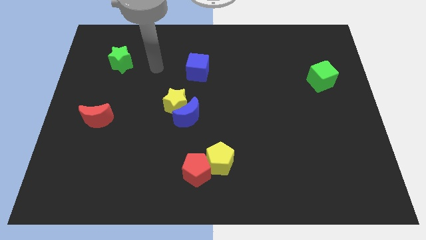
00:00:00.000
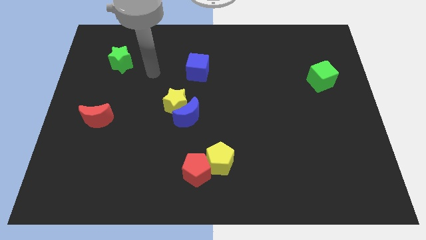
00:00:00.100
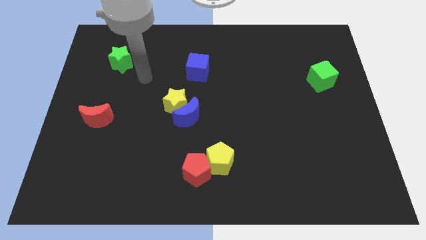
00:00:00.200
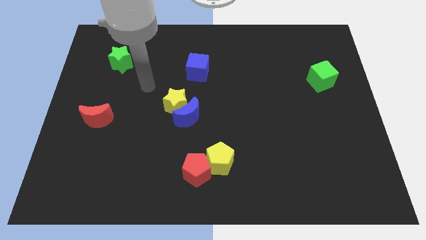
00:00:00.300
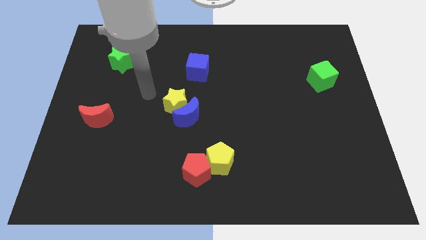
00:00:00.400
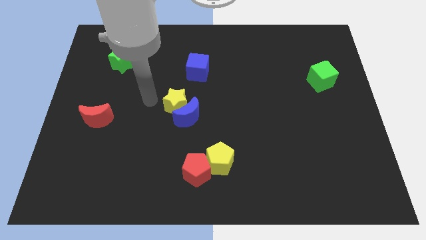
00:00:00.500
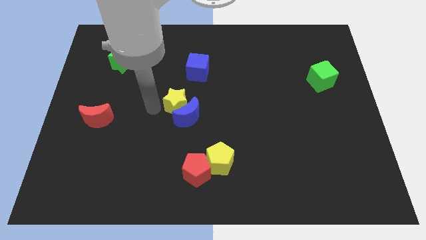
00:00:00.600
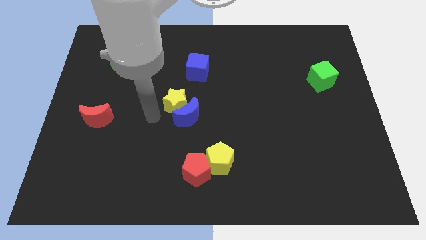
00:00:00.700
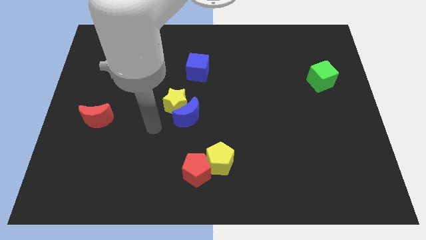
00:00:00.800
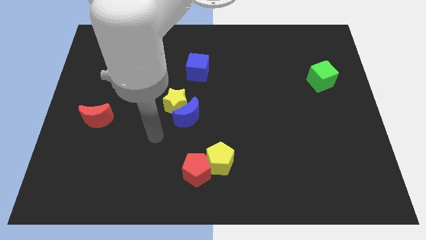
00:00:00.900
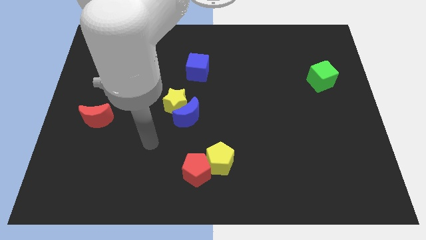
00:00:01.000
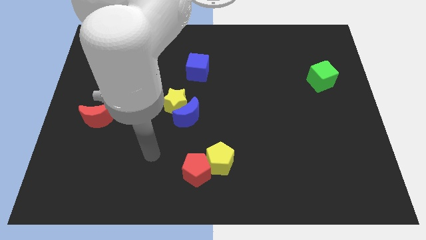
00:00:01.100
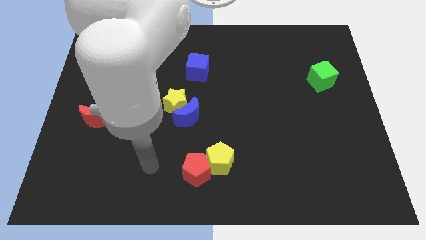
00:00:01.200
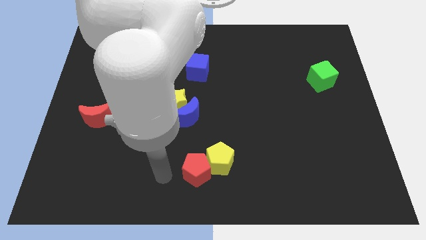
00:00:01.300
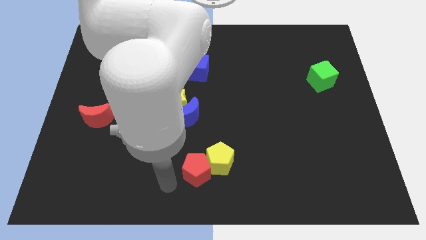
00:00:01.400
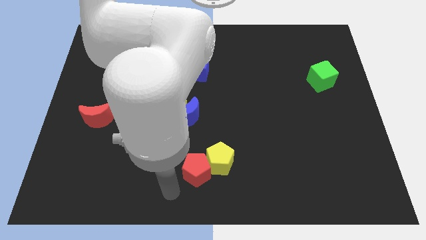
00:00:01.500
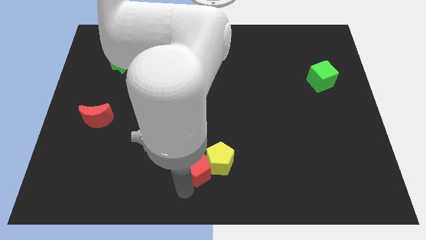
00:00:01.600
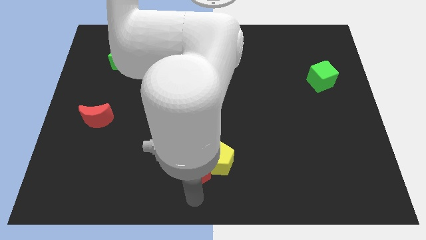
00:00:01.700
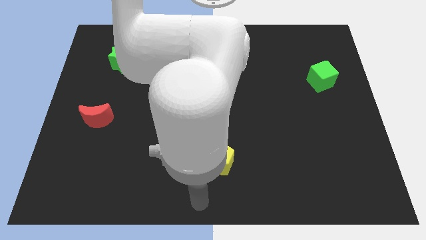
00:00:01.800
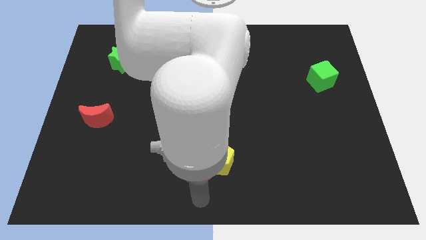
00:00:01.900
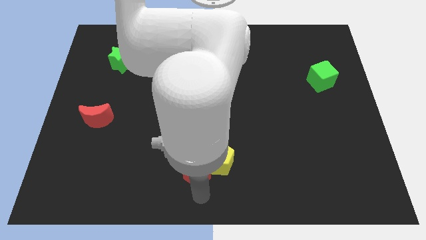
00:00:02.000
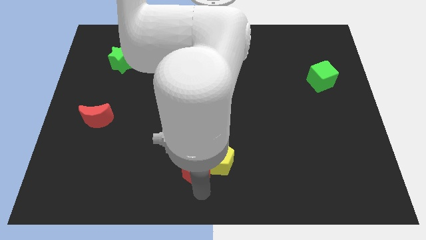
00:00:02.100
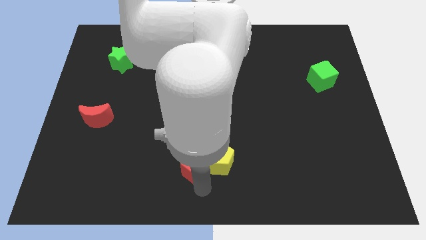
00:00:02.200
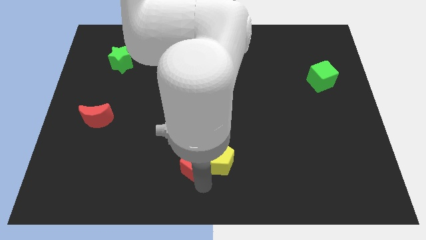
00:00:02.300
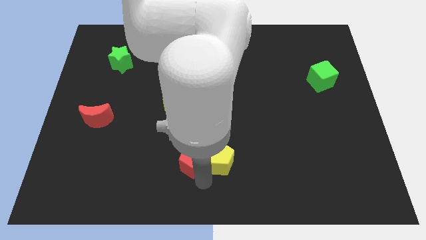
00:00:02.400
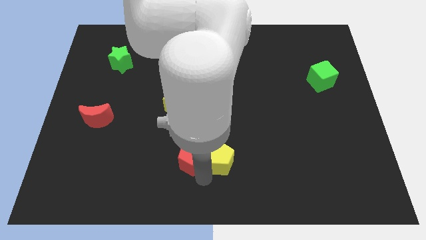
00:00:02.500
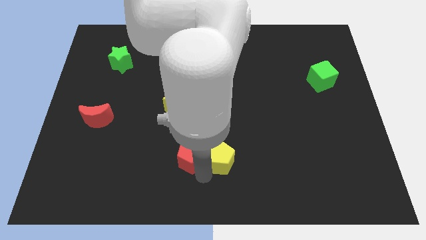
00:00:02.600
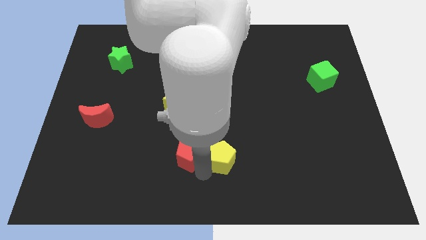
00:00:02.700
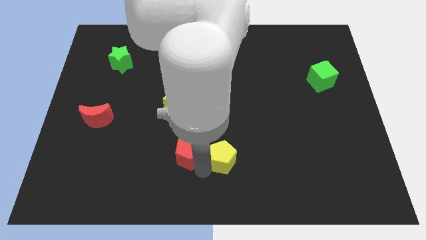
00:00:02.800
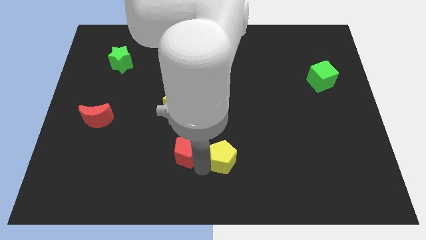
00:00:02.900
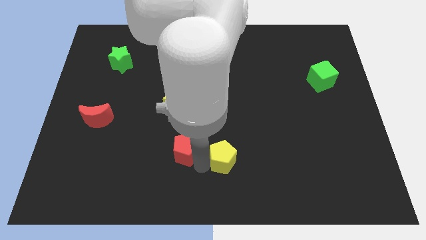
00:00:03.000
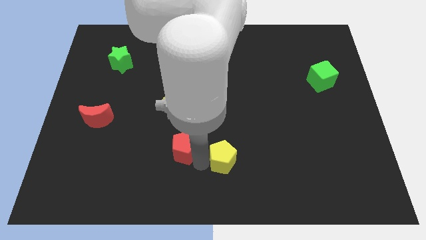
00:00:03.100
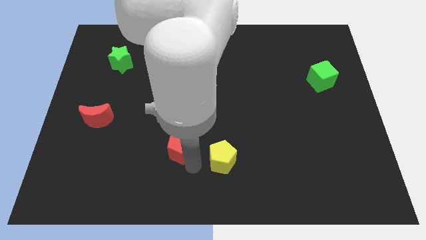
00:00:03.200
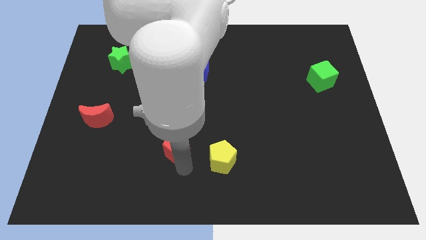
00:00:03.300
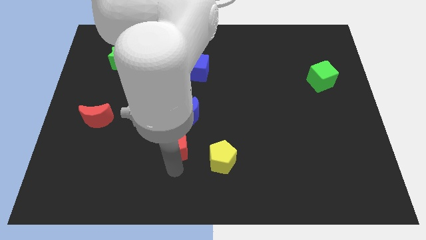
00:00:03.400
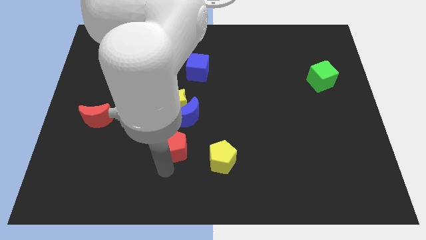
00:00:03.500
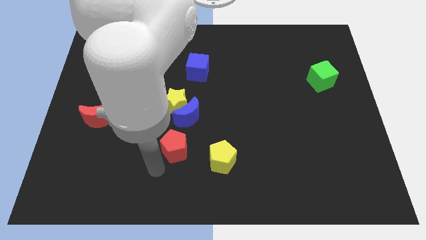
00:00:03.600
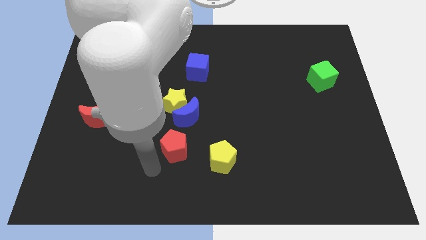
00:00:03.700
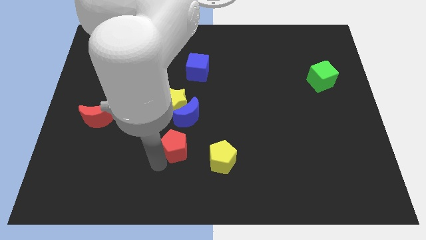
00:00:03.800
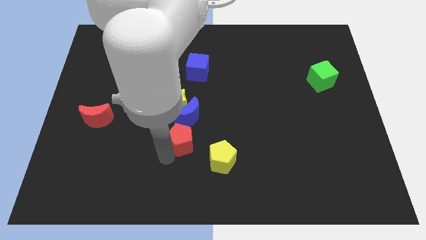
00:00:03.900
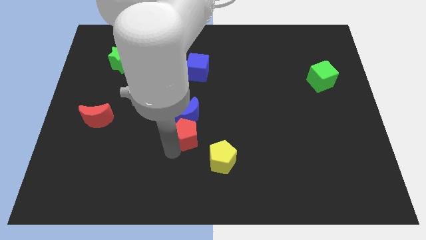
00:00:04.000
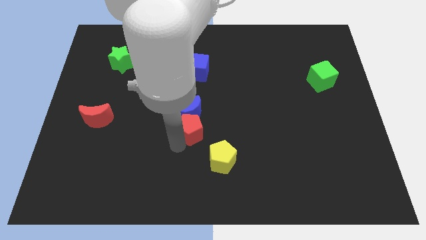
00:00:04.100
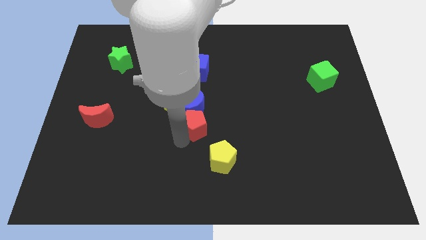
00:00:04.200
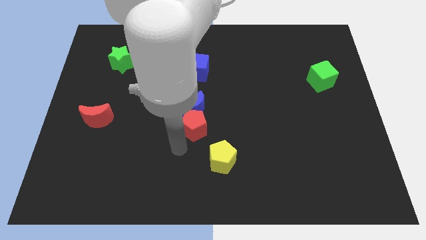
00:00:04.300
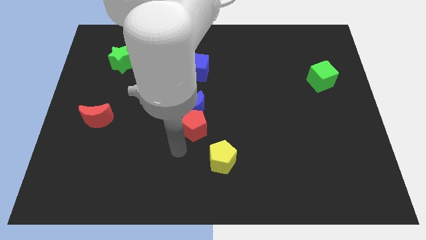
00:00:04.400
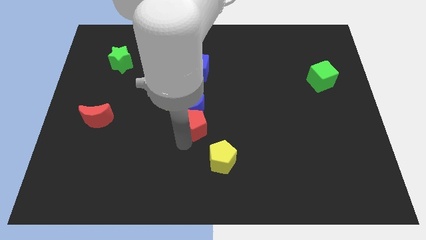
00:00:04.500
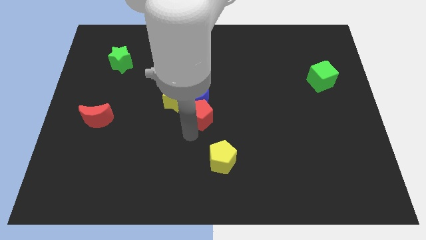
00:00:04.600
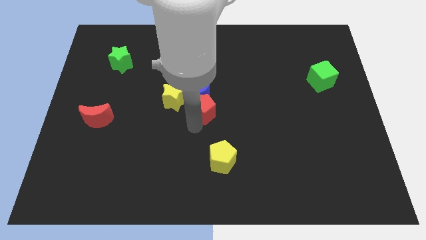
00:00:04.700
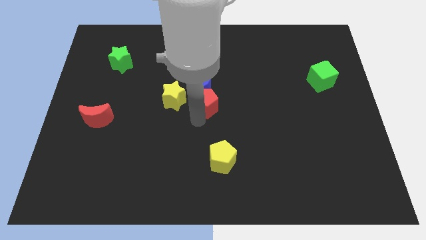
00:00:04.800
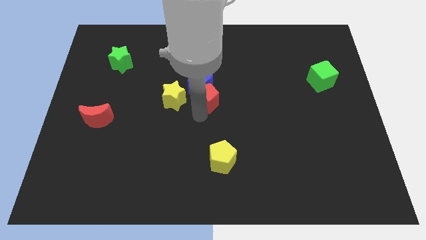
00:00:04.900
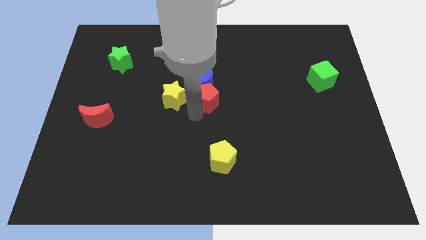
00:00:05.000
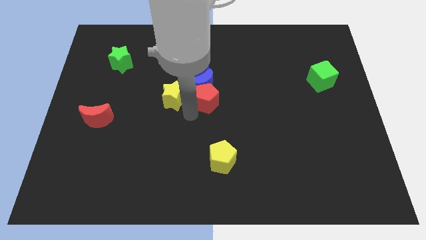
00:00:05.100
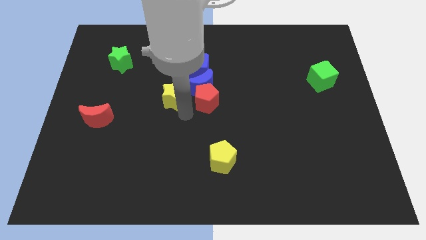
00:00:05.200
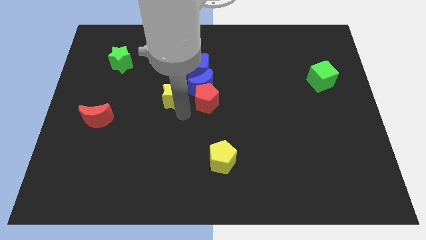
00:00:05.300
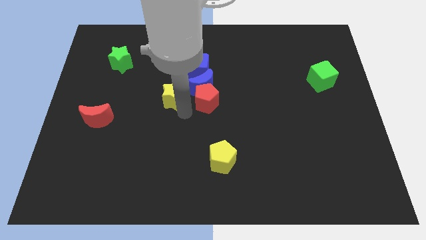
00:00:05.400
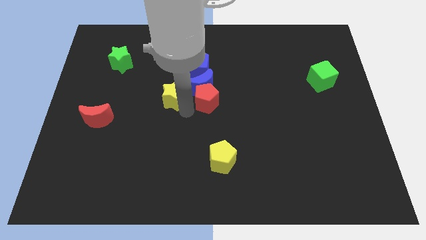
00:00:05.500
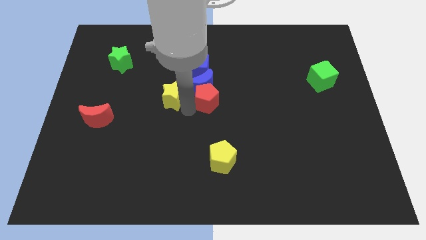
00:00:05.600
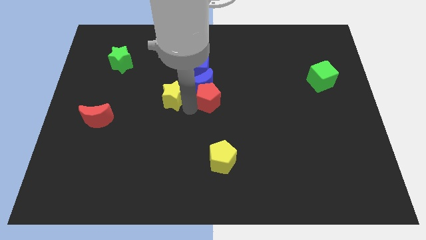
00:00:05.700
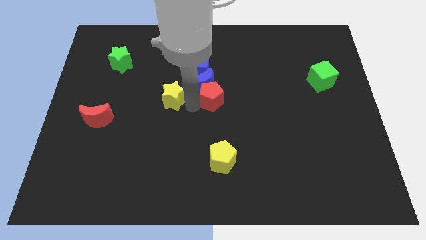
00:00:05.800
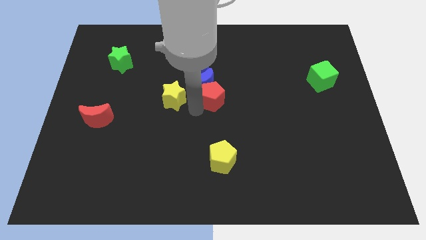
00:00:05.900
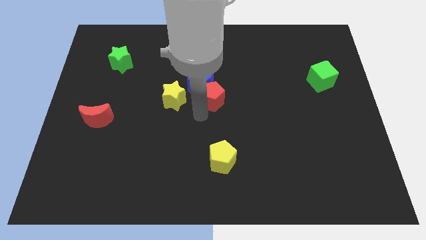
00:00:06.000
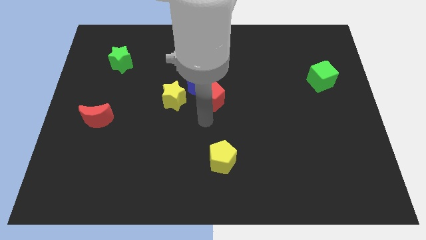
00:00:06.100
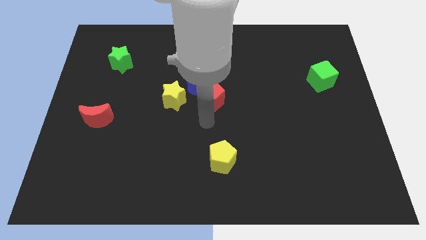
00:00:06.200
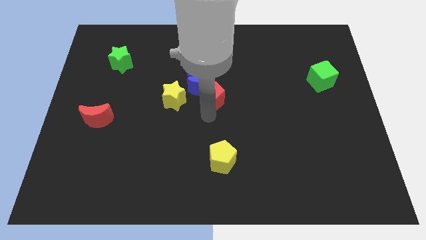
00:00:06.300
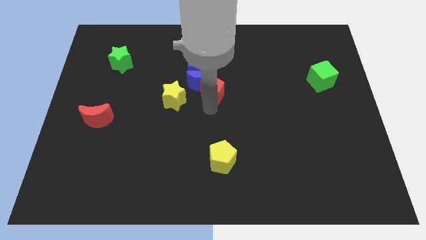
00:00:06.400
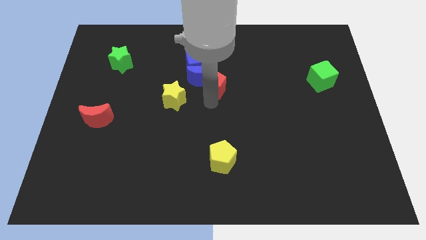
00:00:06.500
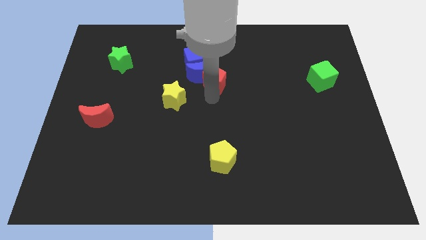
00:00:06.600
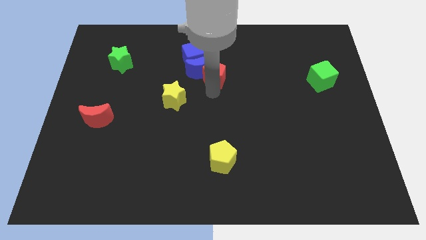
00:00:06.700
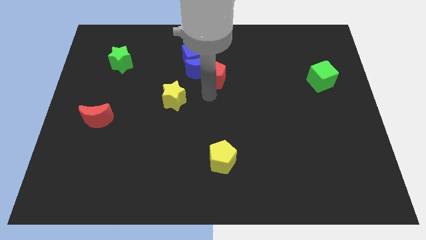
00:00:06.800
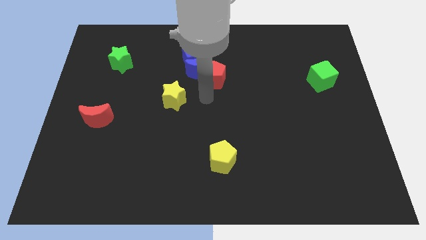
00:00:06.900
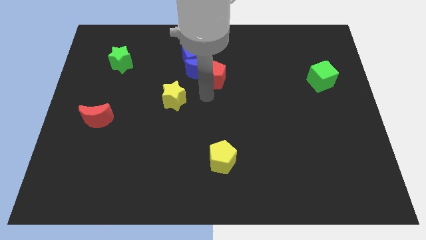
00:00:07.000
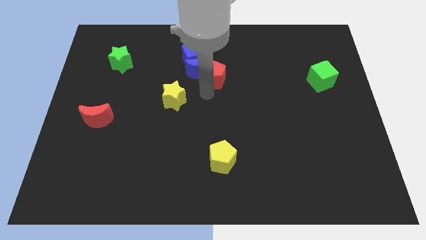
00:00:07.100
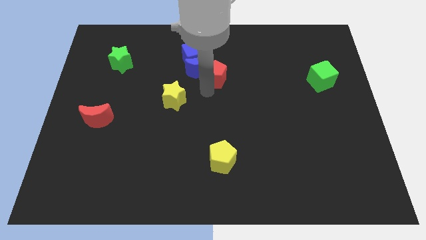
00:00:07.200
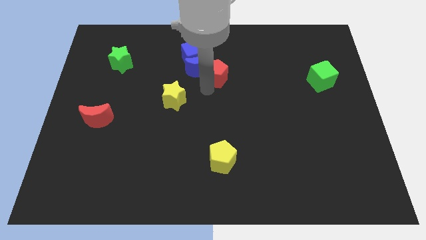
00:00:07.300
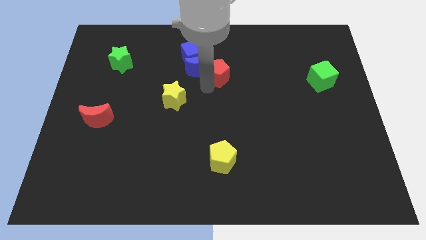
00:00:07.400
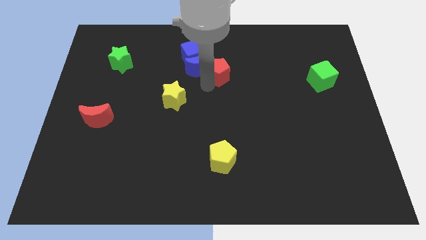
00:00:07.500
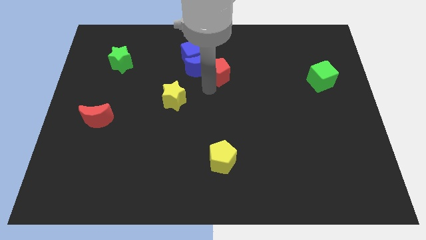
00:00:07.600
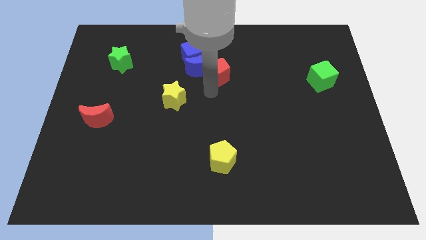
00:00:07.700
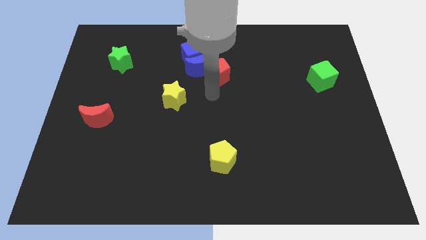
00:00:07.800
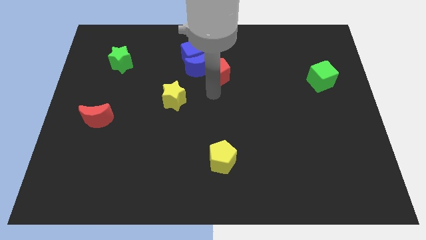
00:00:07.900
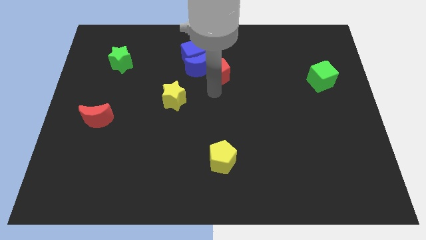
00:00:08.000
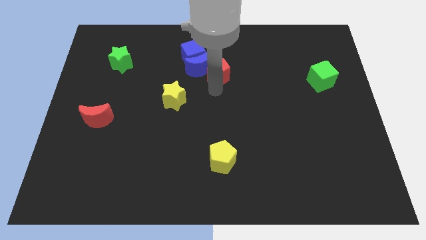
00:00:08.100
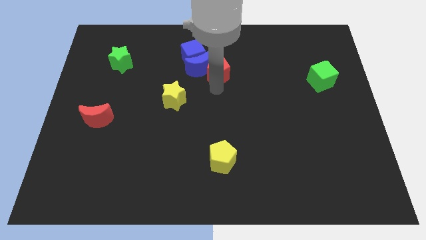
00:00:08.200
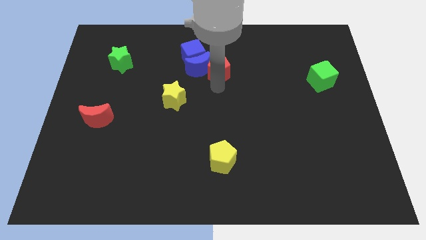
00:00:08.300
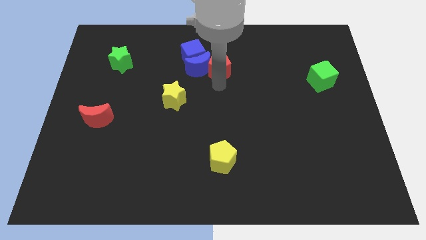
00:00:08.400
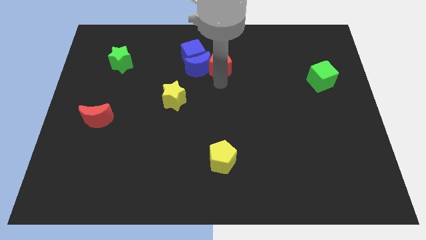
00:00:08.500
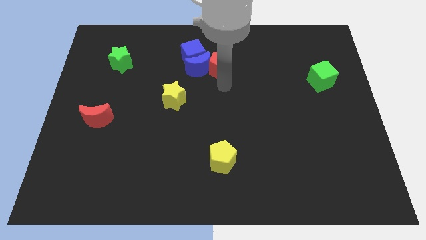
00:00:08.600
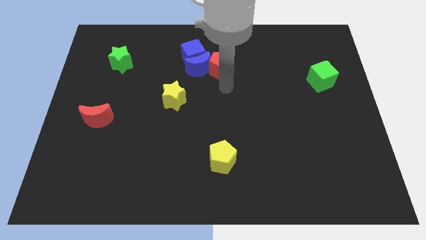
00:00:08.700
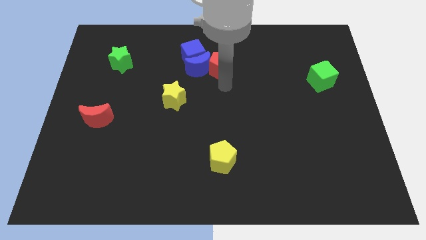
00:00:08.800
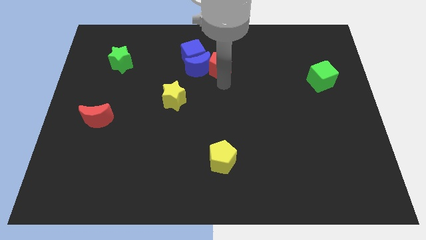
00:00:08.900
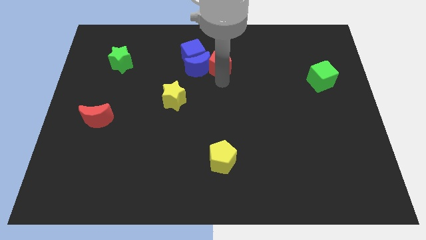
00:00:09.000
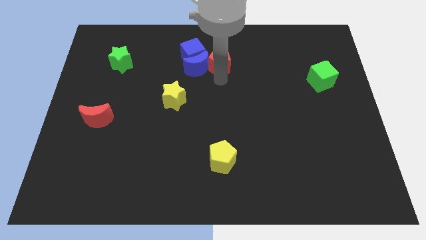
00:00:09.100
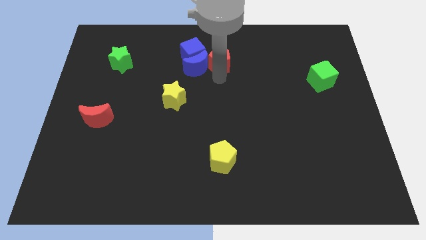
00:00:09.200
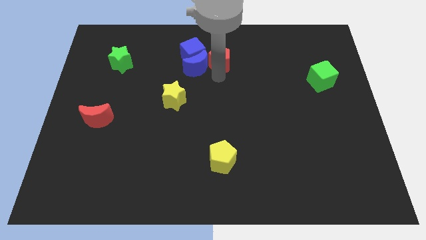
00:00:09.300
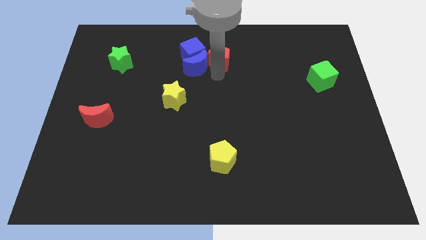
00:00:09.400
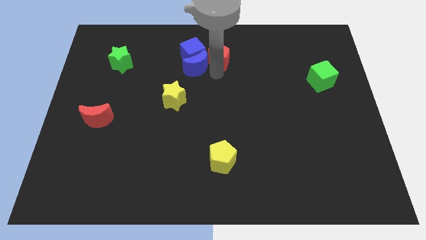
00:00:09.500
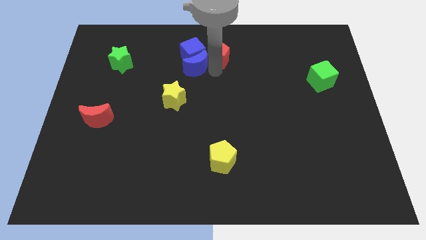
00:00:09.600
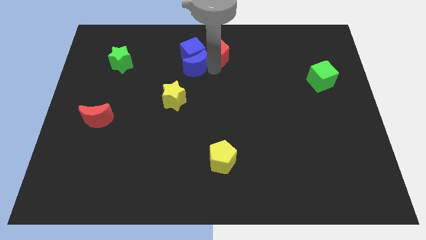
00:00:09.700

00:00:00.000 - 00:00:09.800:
put the red pentagon to the towards your base
